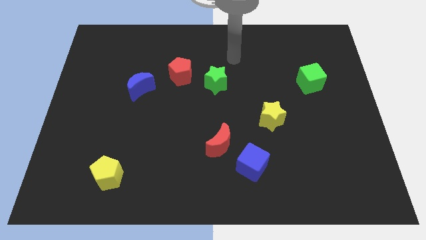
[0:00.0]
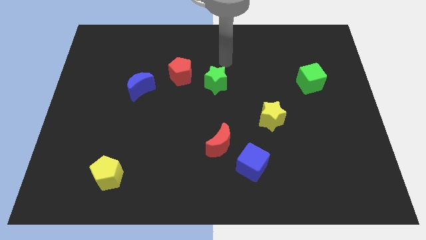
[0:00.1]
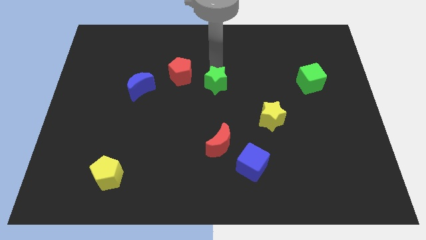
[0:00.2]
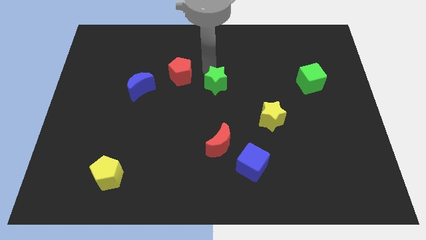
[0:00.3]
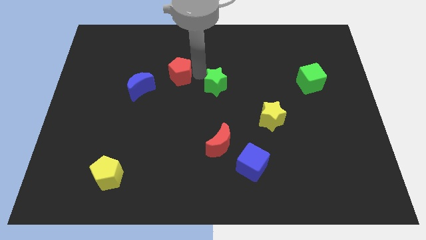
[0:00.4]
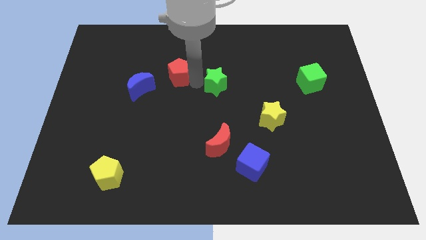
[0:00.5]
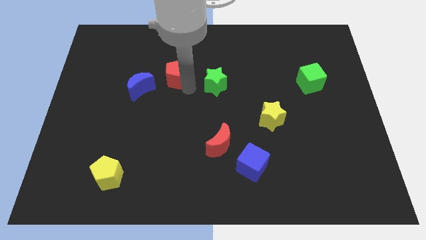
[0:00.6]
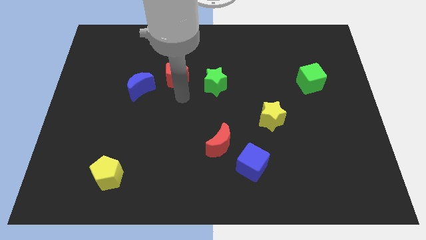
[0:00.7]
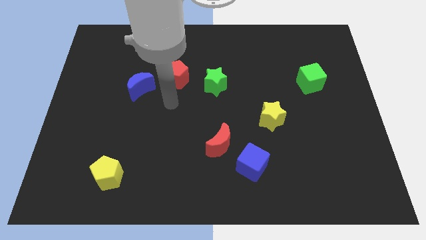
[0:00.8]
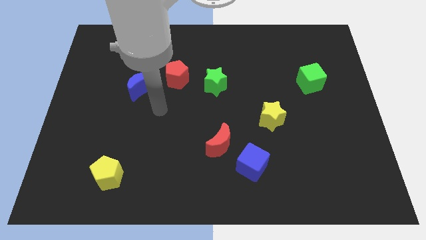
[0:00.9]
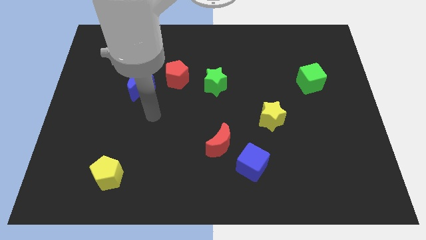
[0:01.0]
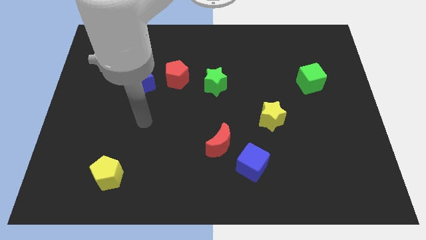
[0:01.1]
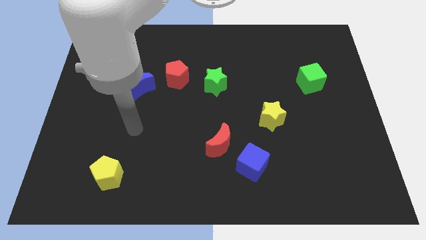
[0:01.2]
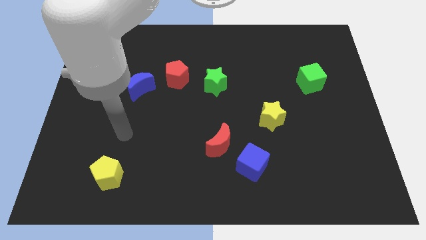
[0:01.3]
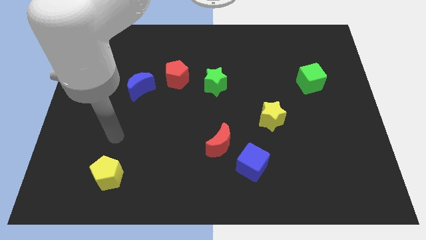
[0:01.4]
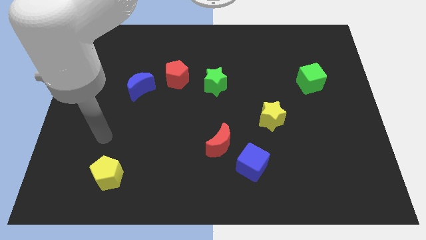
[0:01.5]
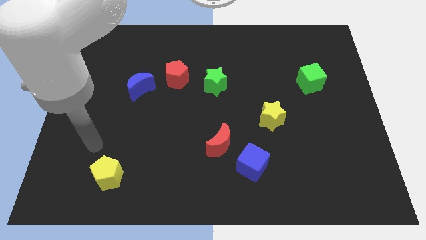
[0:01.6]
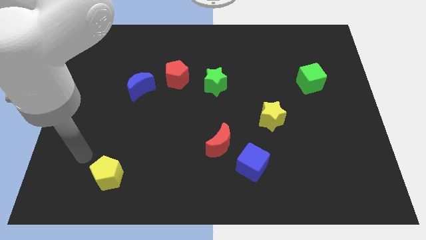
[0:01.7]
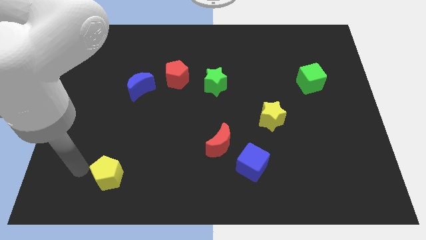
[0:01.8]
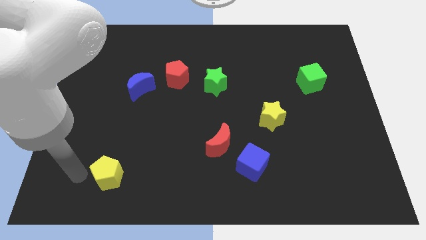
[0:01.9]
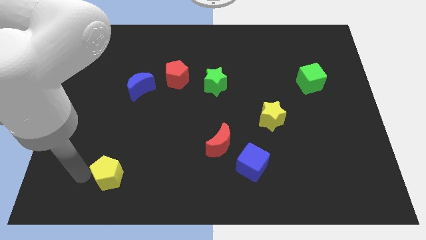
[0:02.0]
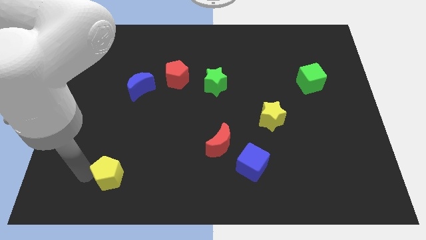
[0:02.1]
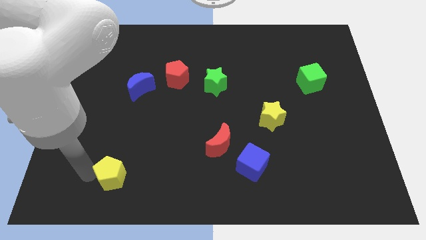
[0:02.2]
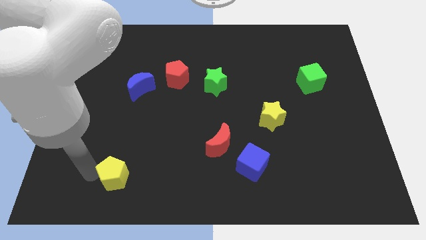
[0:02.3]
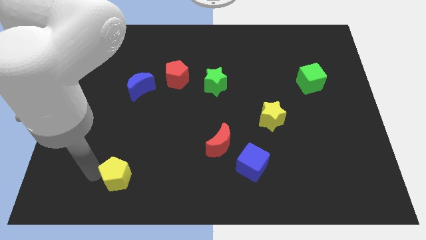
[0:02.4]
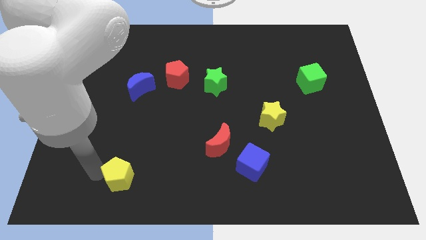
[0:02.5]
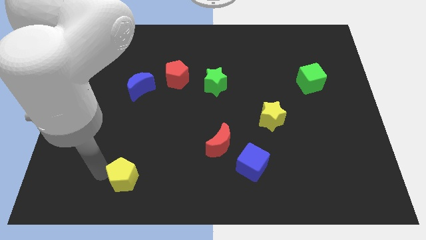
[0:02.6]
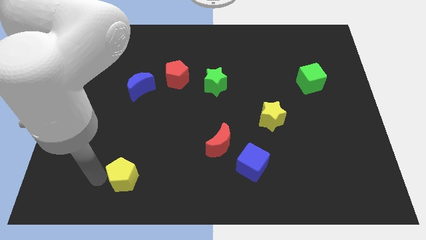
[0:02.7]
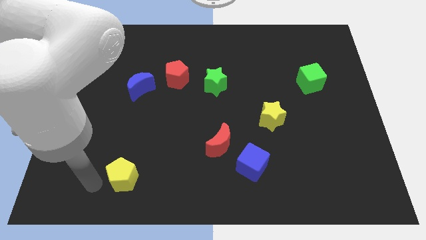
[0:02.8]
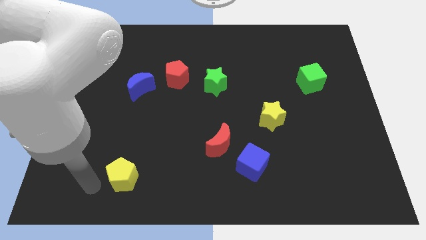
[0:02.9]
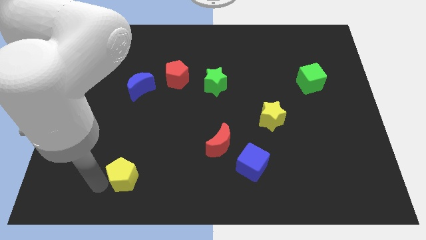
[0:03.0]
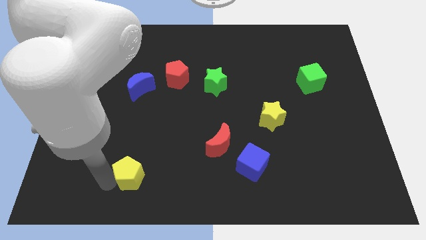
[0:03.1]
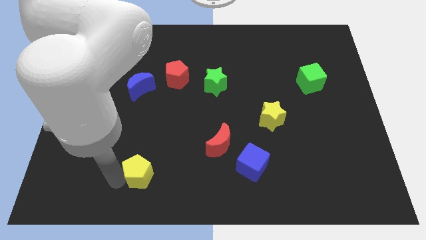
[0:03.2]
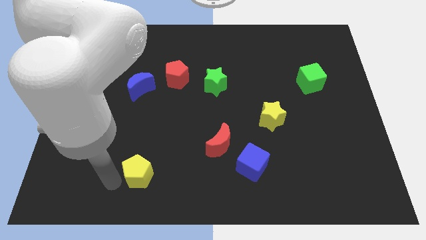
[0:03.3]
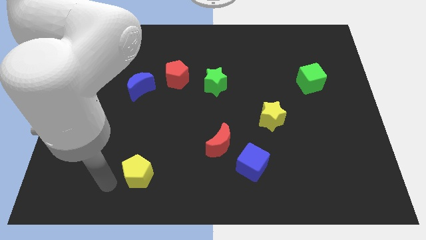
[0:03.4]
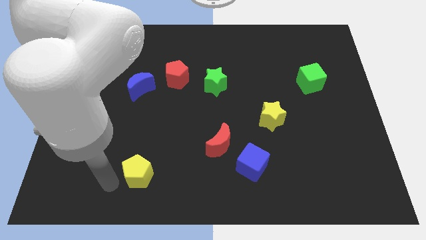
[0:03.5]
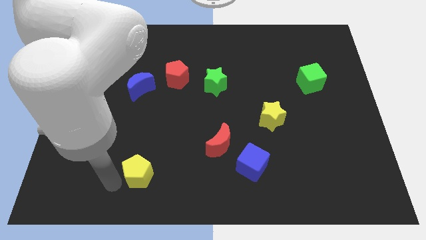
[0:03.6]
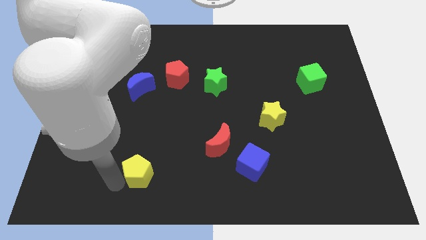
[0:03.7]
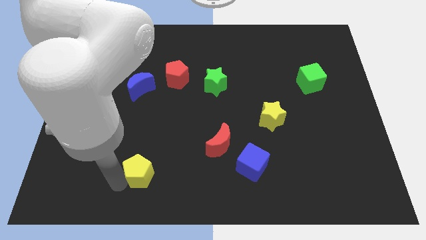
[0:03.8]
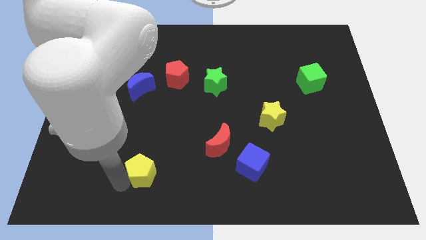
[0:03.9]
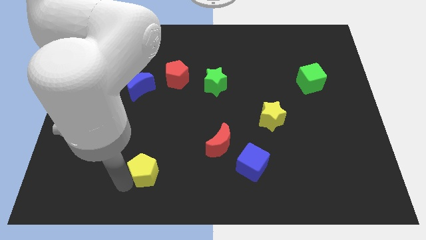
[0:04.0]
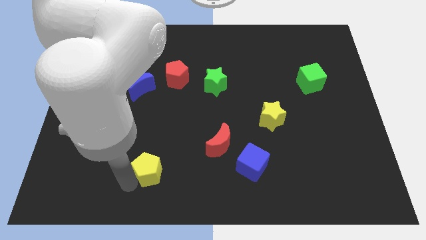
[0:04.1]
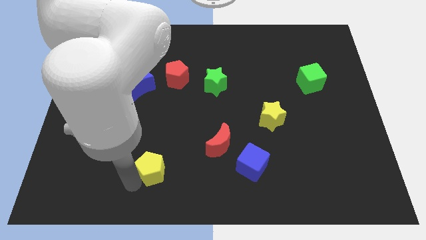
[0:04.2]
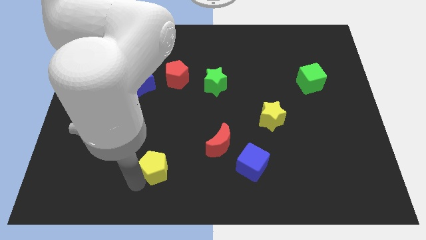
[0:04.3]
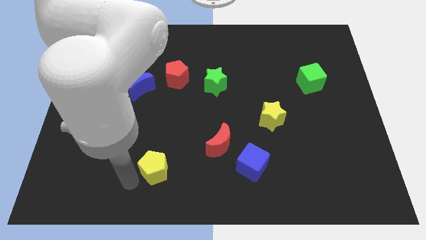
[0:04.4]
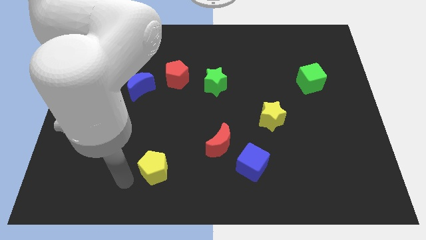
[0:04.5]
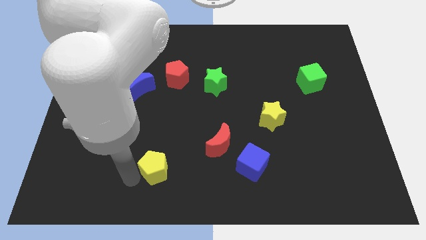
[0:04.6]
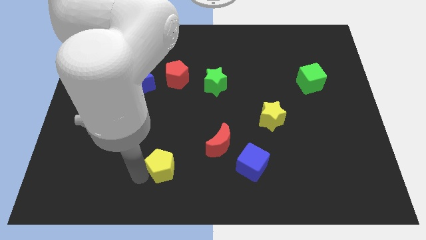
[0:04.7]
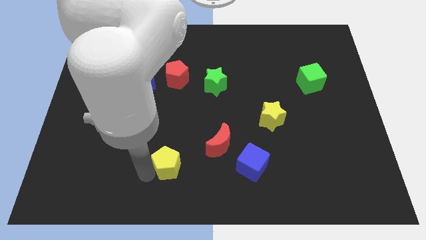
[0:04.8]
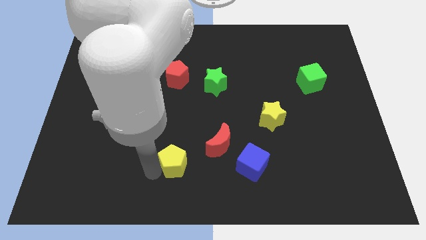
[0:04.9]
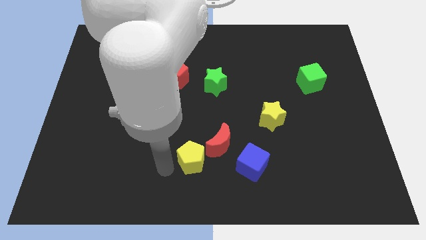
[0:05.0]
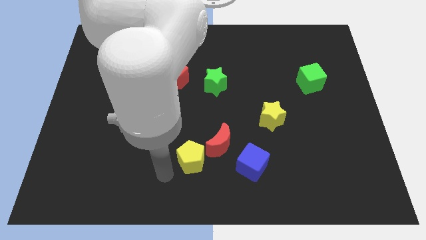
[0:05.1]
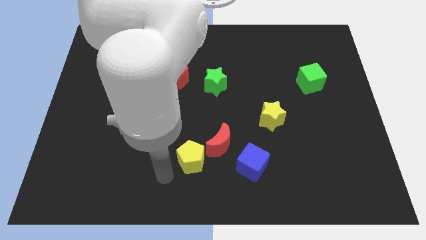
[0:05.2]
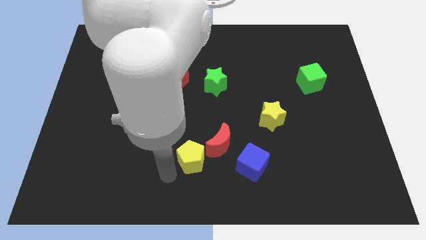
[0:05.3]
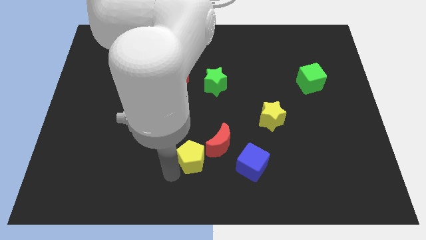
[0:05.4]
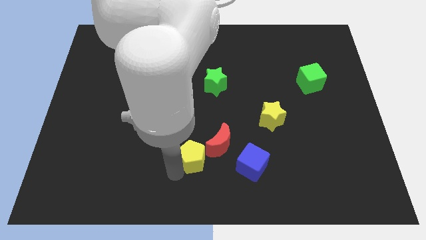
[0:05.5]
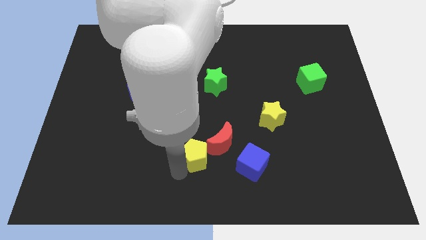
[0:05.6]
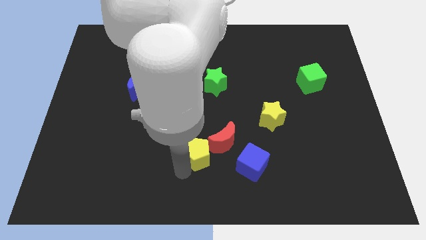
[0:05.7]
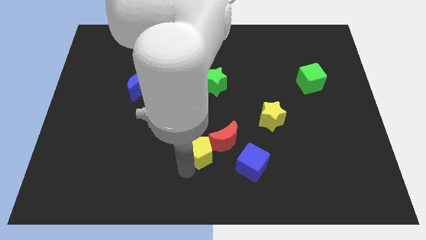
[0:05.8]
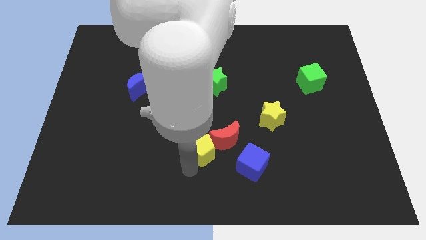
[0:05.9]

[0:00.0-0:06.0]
move the yellow pentagon next to the red moon

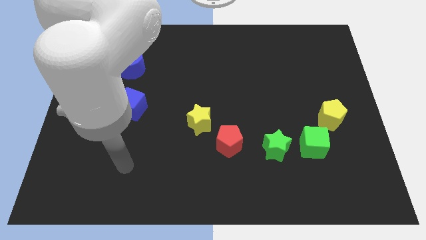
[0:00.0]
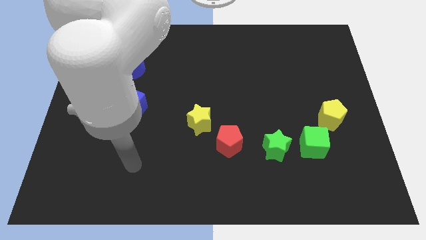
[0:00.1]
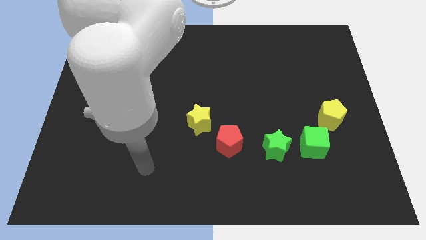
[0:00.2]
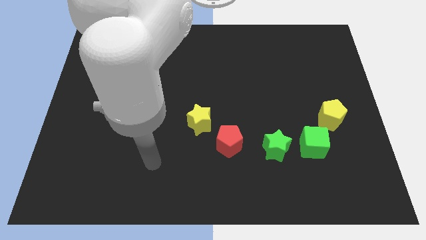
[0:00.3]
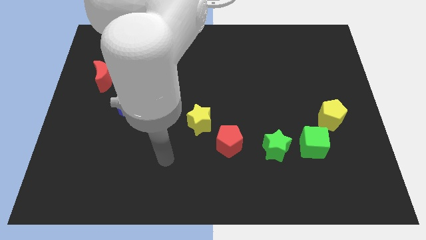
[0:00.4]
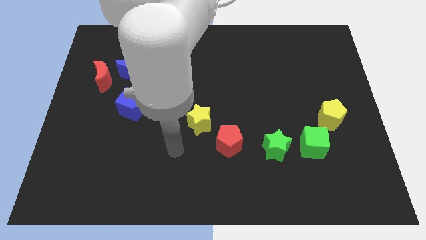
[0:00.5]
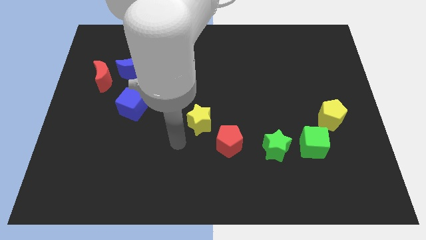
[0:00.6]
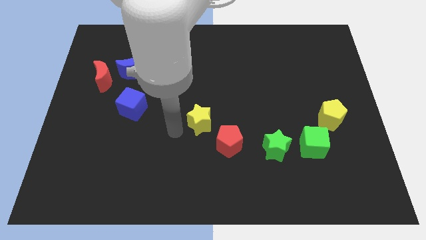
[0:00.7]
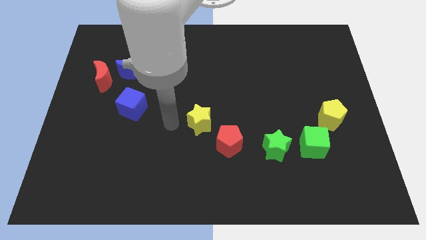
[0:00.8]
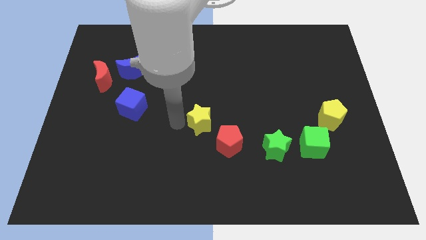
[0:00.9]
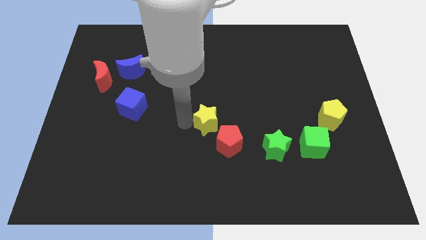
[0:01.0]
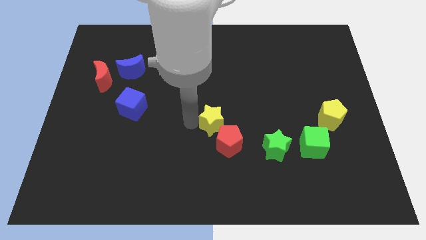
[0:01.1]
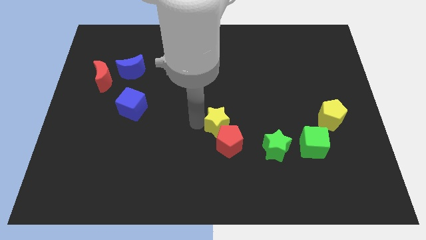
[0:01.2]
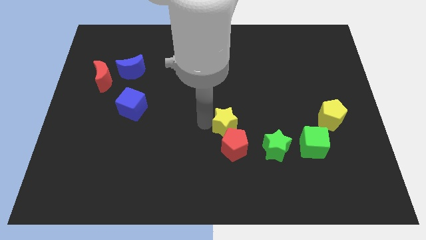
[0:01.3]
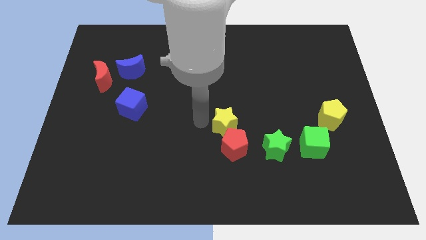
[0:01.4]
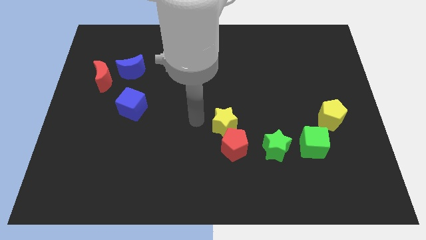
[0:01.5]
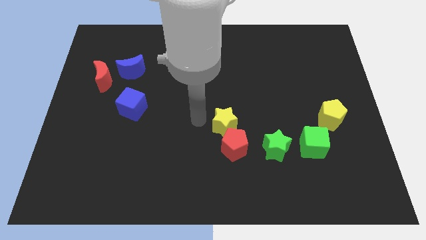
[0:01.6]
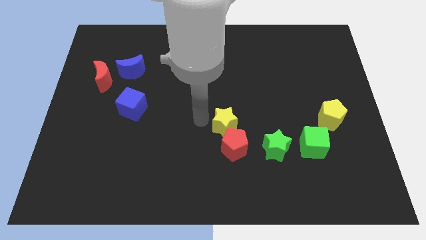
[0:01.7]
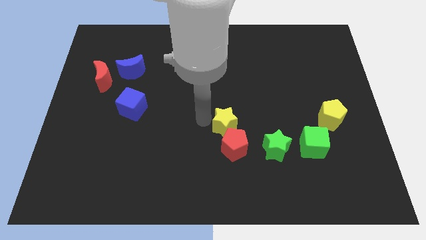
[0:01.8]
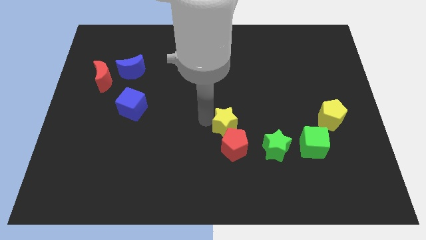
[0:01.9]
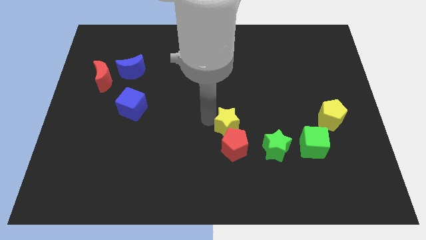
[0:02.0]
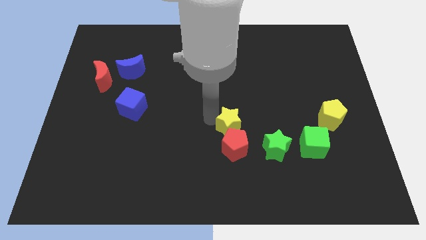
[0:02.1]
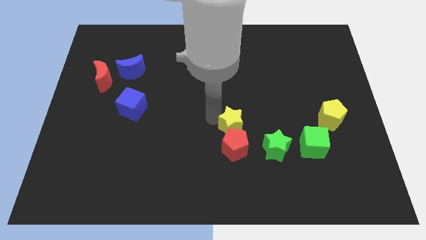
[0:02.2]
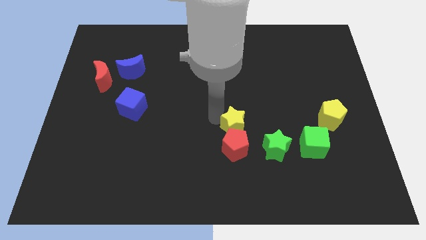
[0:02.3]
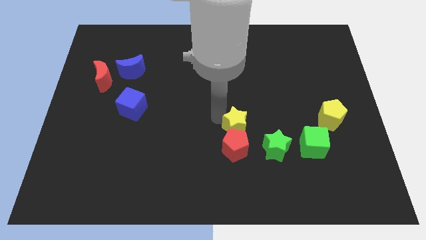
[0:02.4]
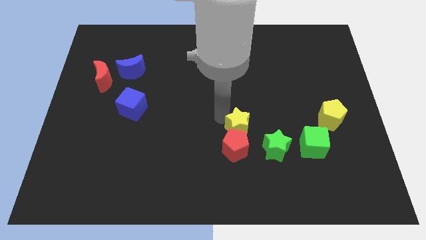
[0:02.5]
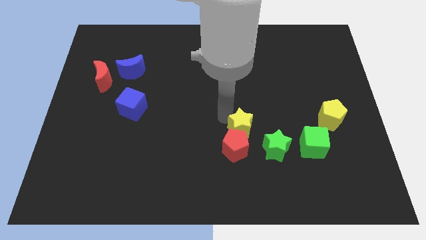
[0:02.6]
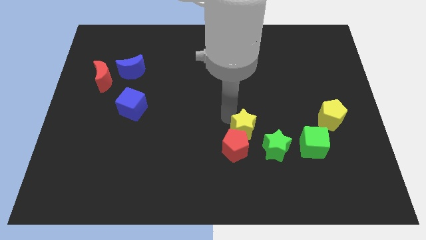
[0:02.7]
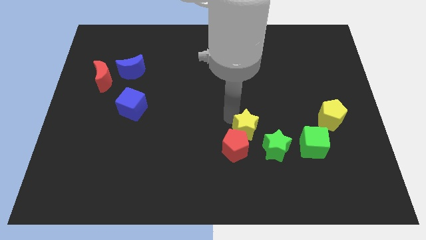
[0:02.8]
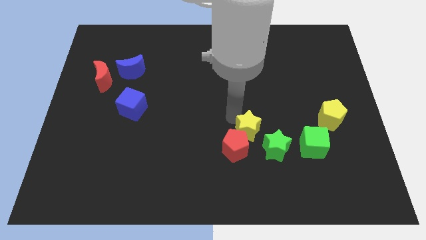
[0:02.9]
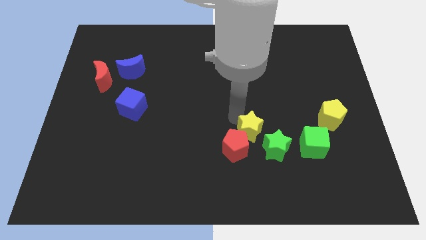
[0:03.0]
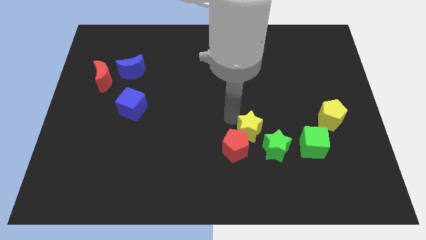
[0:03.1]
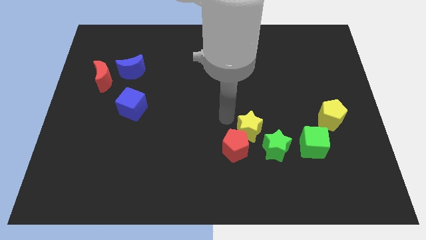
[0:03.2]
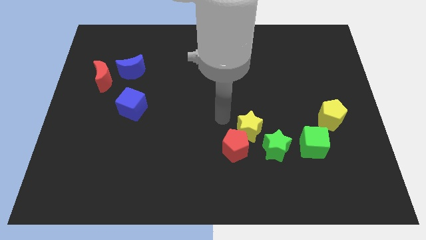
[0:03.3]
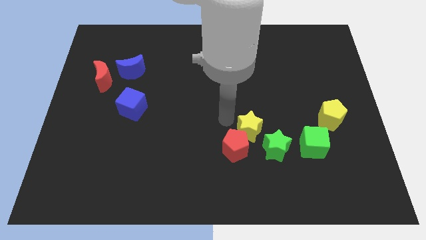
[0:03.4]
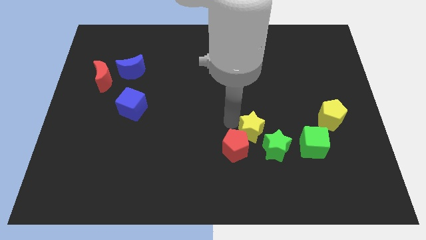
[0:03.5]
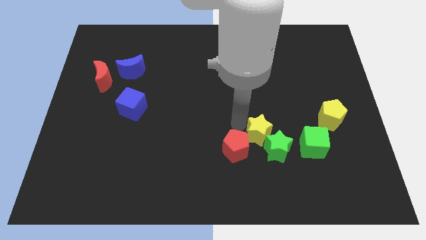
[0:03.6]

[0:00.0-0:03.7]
move the yellow star to the green star
